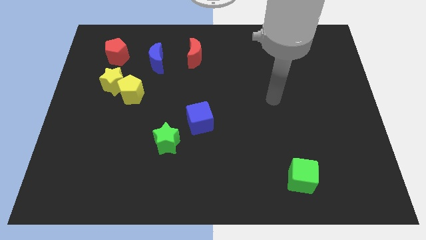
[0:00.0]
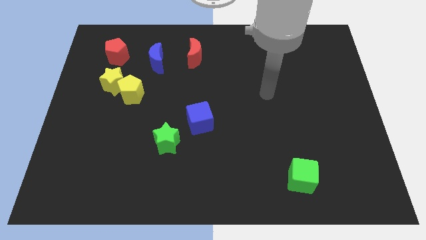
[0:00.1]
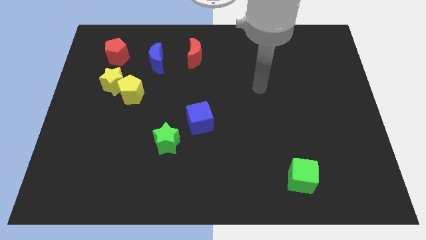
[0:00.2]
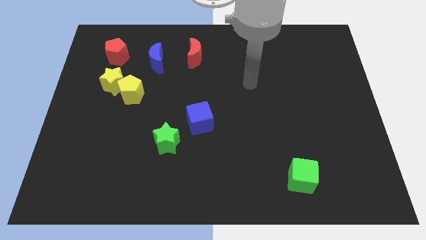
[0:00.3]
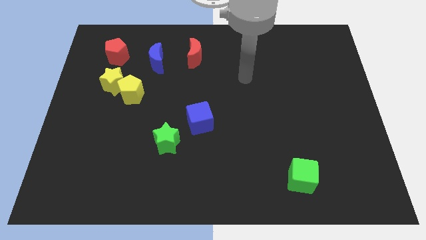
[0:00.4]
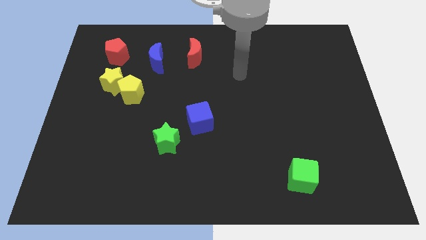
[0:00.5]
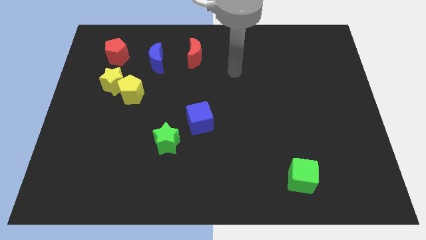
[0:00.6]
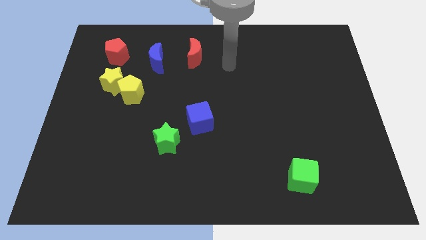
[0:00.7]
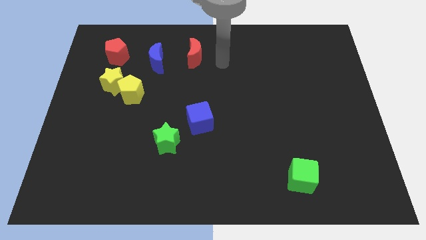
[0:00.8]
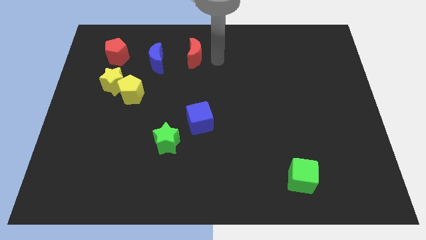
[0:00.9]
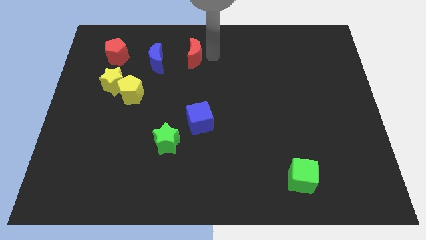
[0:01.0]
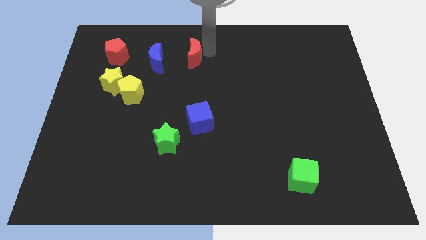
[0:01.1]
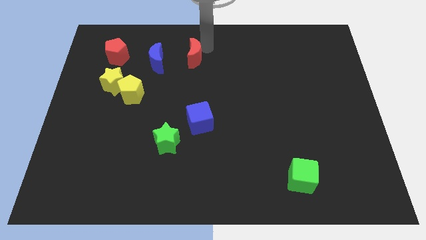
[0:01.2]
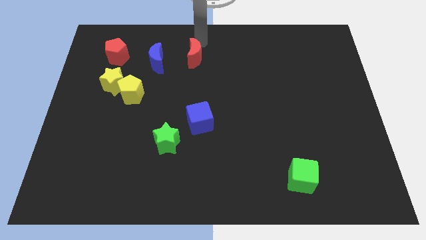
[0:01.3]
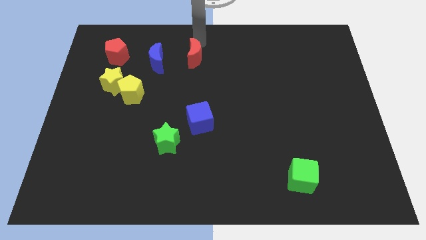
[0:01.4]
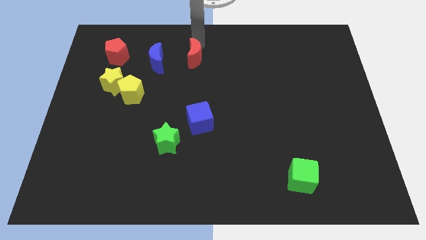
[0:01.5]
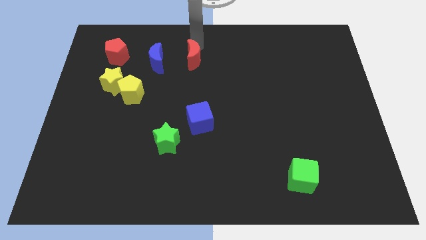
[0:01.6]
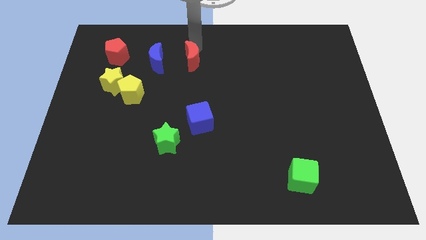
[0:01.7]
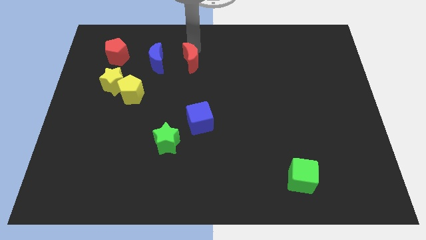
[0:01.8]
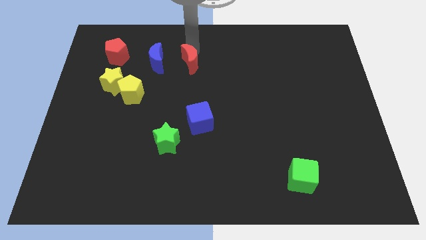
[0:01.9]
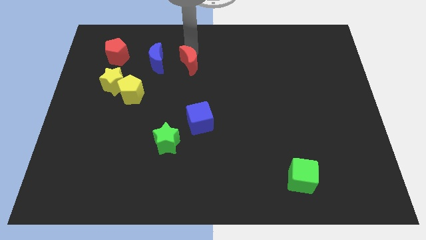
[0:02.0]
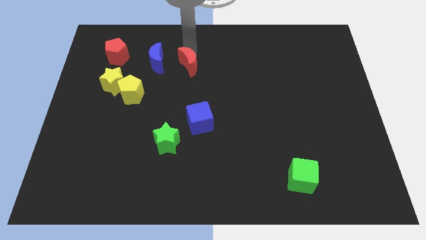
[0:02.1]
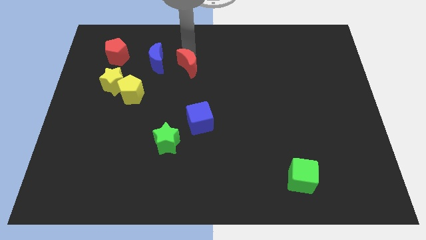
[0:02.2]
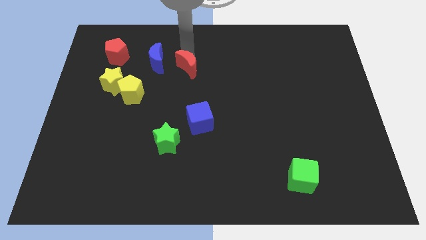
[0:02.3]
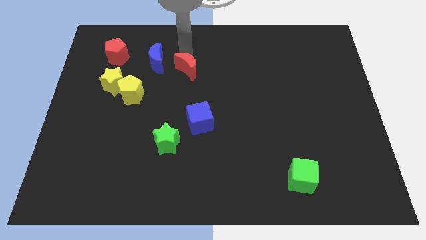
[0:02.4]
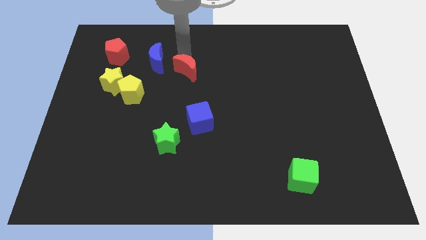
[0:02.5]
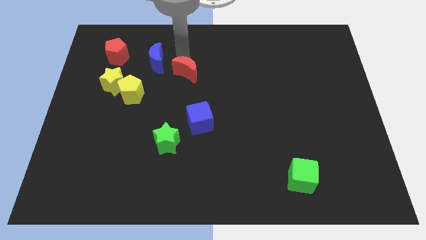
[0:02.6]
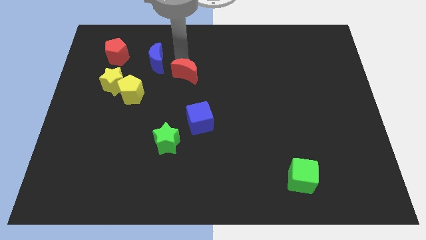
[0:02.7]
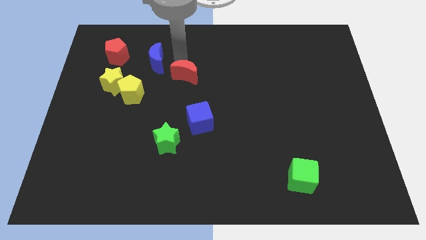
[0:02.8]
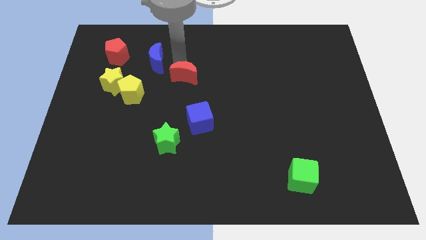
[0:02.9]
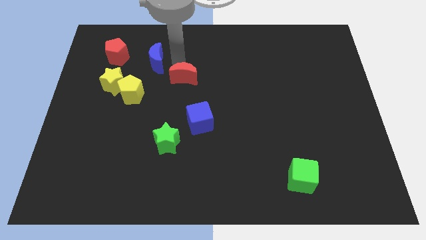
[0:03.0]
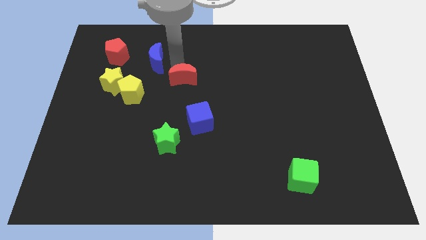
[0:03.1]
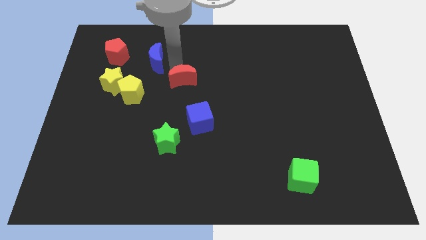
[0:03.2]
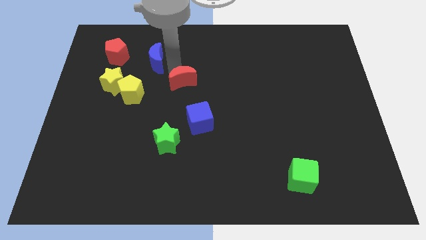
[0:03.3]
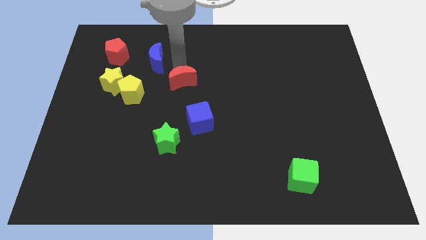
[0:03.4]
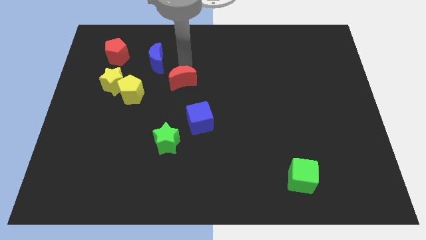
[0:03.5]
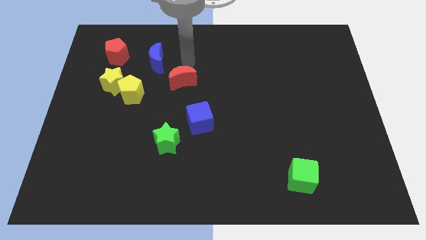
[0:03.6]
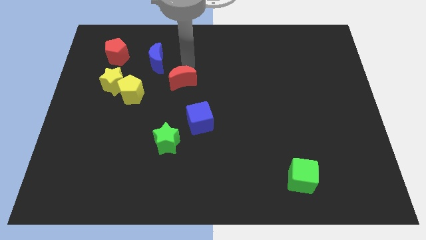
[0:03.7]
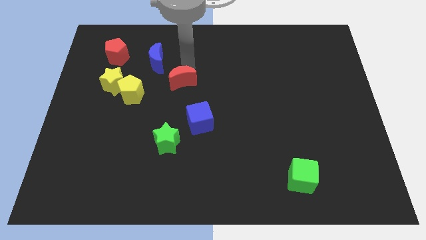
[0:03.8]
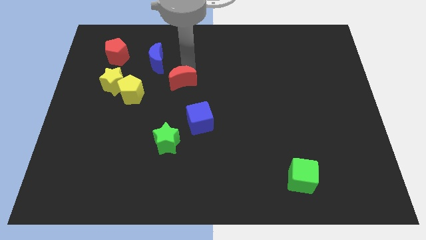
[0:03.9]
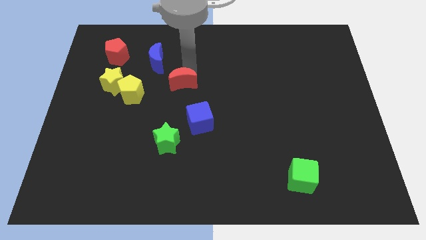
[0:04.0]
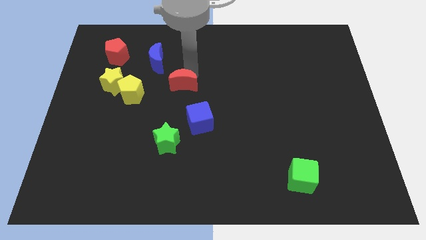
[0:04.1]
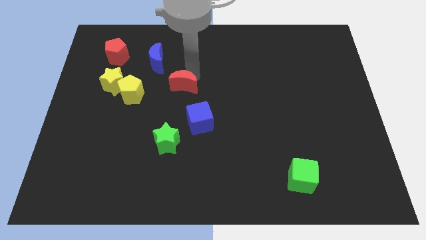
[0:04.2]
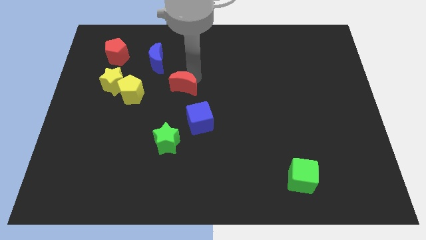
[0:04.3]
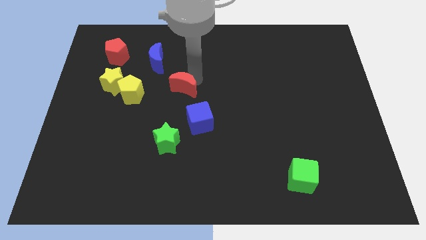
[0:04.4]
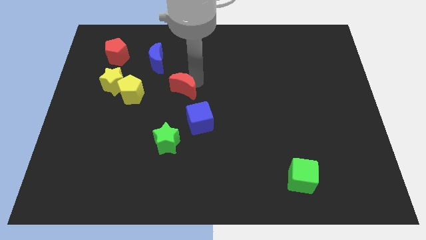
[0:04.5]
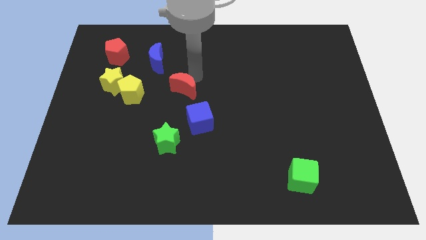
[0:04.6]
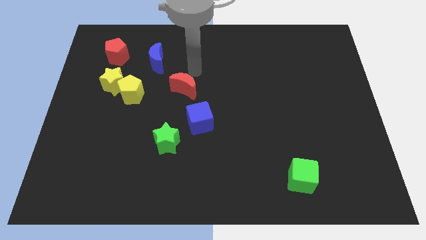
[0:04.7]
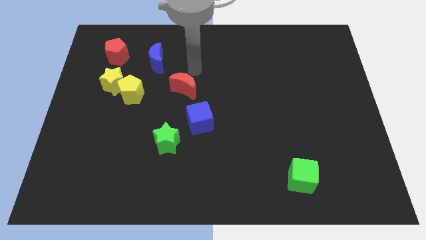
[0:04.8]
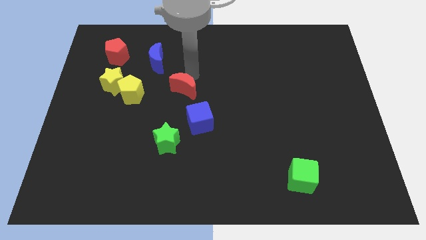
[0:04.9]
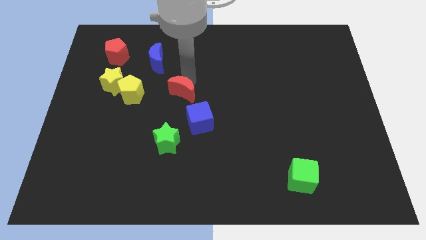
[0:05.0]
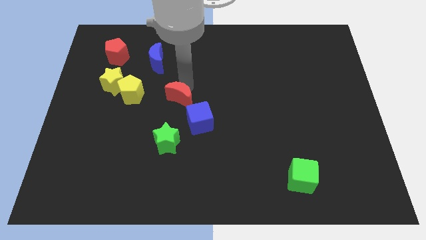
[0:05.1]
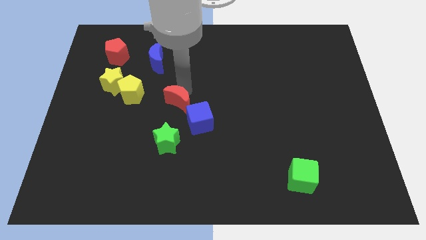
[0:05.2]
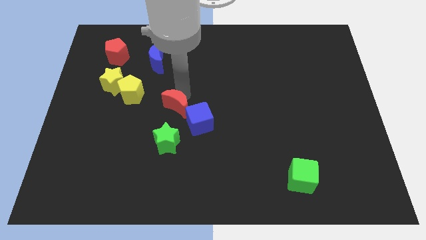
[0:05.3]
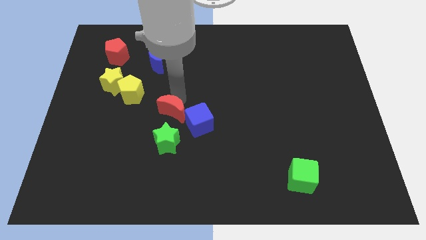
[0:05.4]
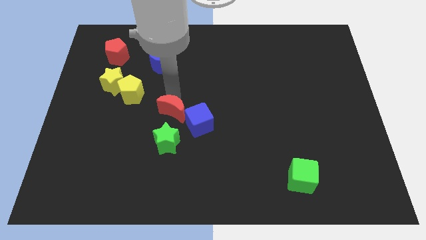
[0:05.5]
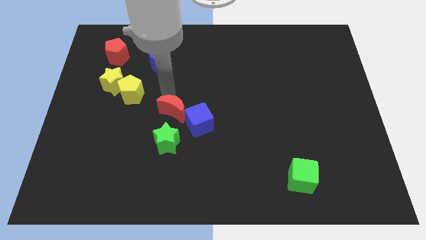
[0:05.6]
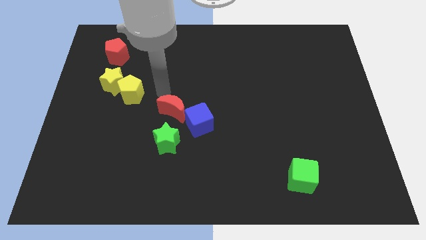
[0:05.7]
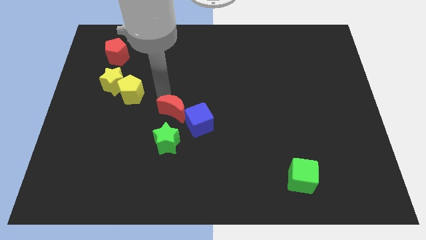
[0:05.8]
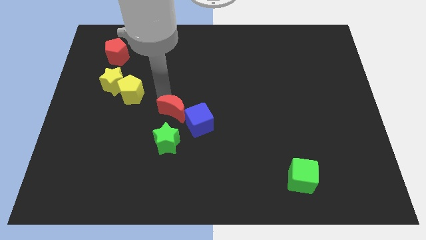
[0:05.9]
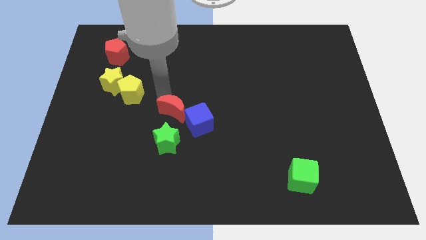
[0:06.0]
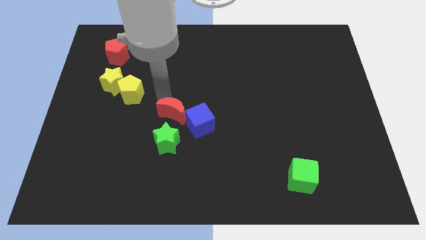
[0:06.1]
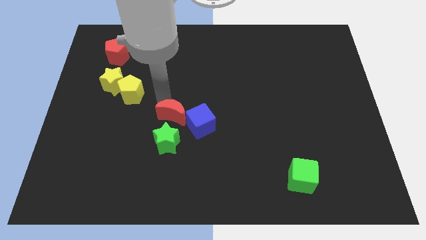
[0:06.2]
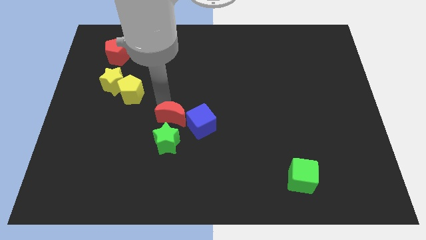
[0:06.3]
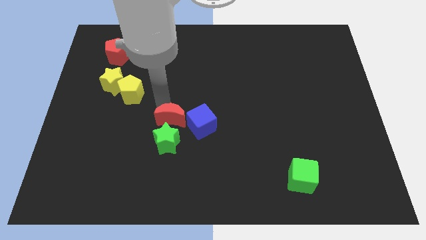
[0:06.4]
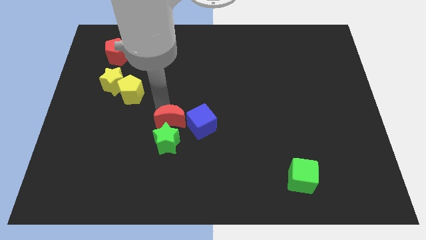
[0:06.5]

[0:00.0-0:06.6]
slide the red moon downwards

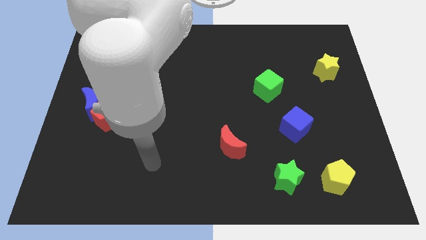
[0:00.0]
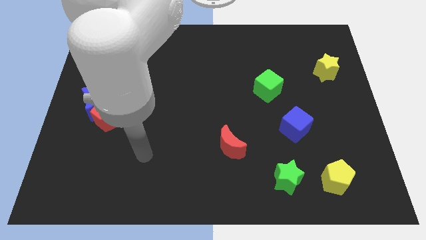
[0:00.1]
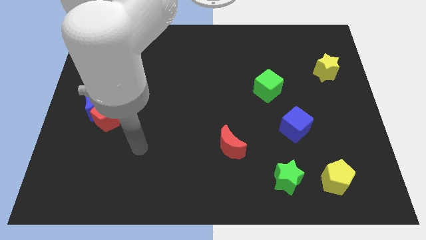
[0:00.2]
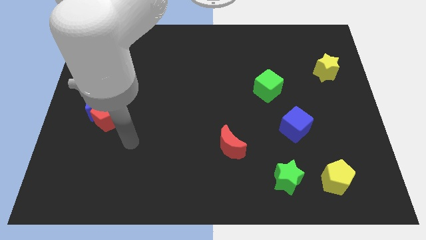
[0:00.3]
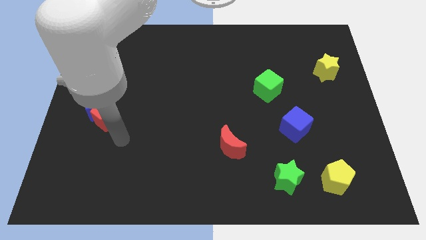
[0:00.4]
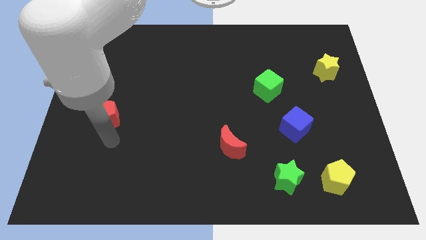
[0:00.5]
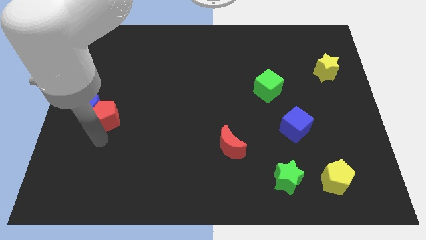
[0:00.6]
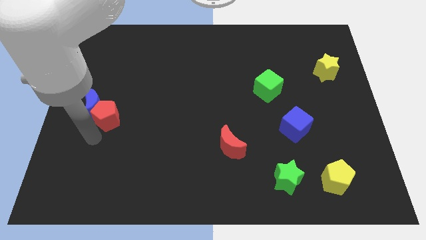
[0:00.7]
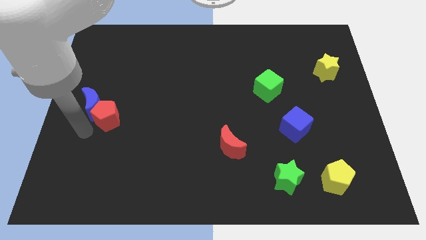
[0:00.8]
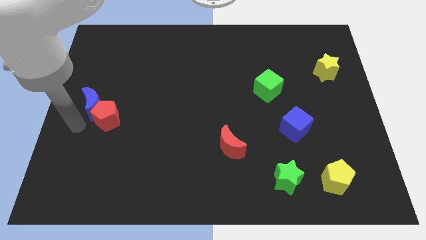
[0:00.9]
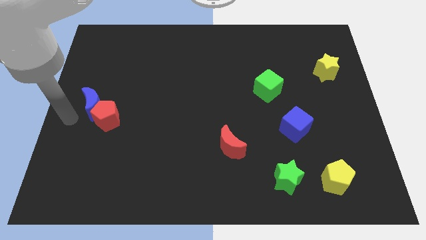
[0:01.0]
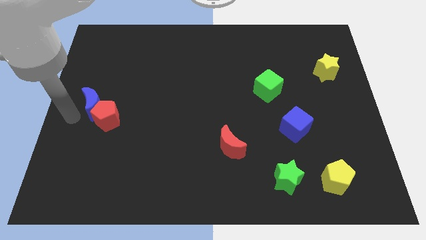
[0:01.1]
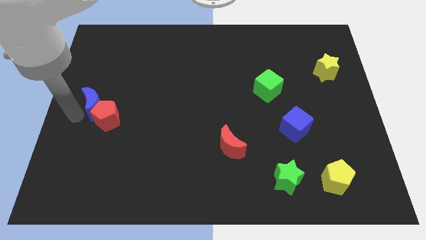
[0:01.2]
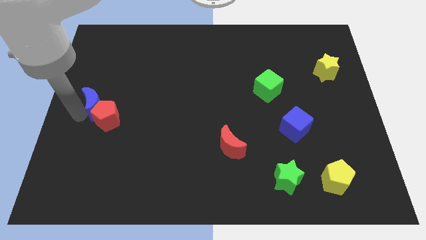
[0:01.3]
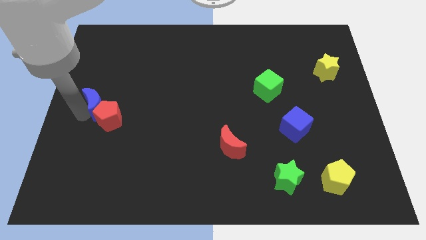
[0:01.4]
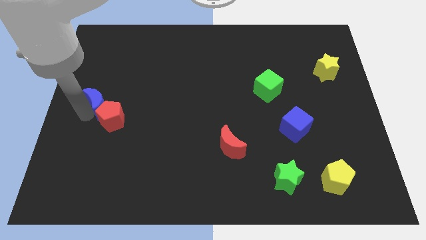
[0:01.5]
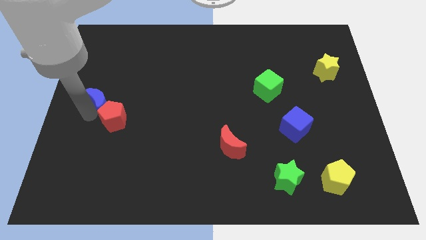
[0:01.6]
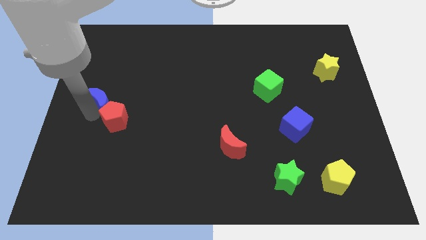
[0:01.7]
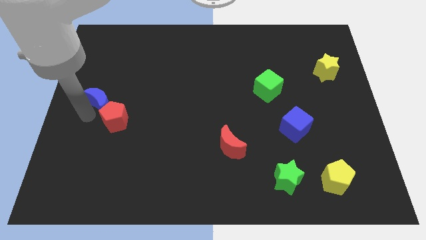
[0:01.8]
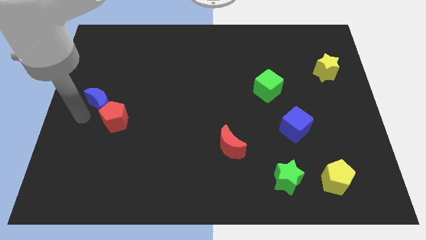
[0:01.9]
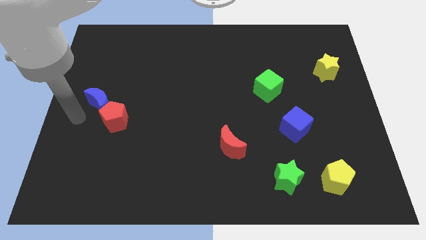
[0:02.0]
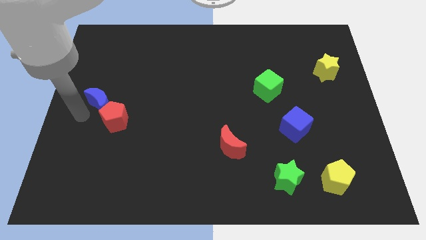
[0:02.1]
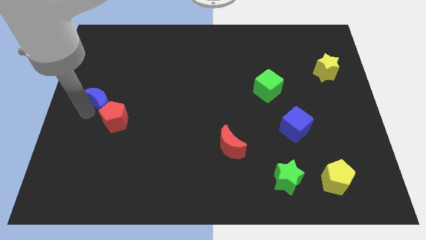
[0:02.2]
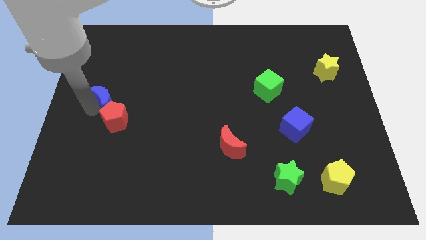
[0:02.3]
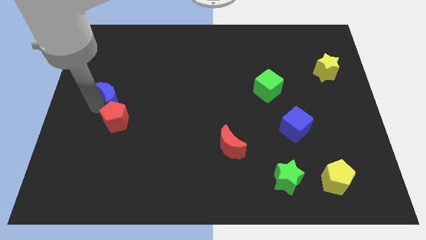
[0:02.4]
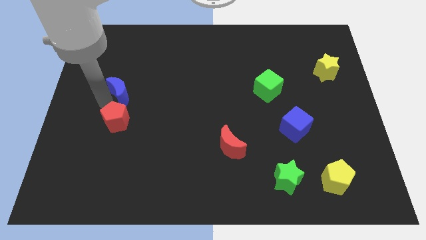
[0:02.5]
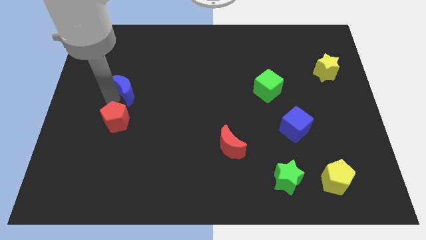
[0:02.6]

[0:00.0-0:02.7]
slide the blue moon somewhat upwards and right
